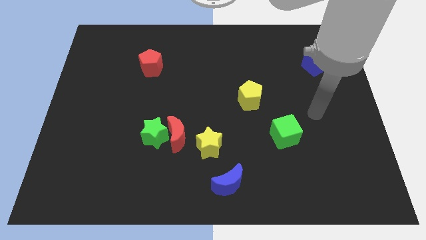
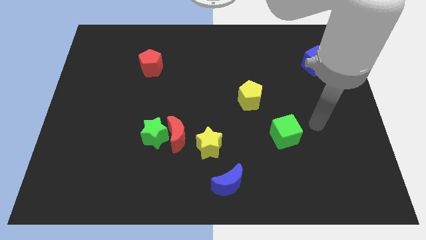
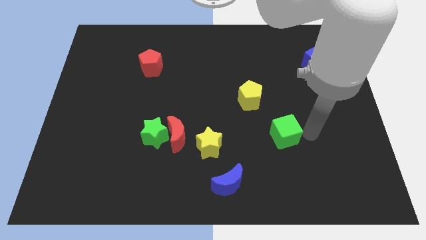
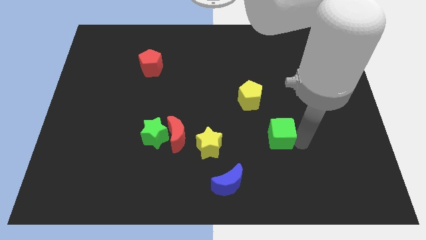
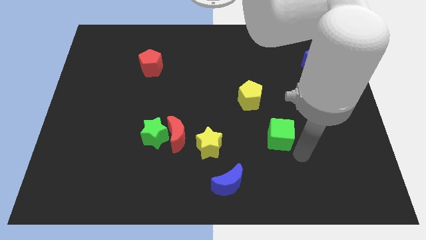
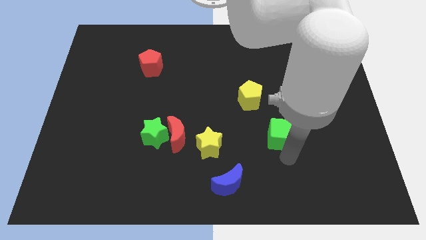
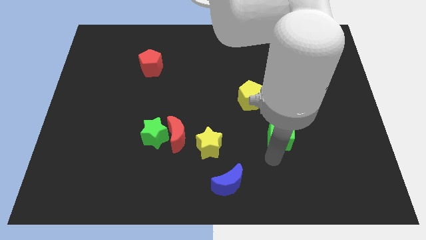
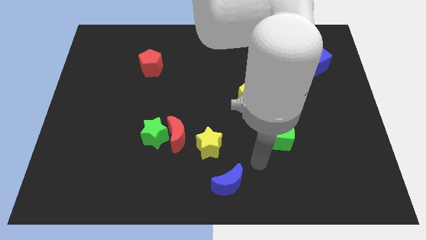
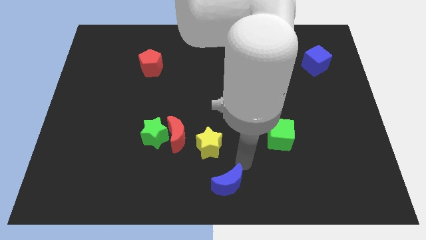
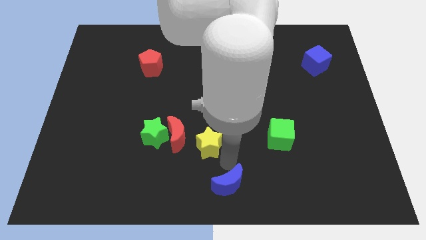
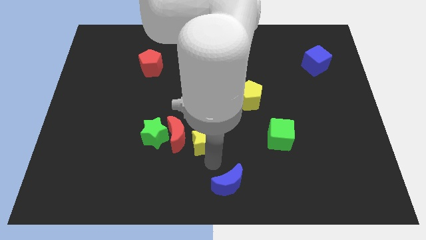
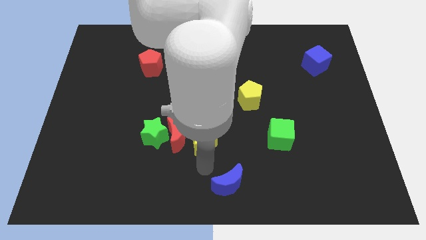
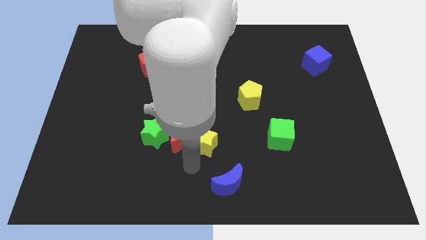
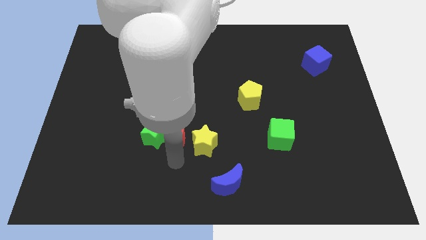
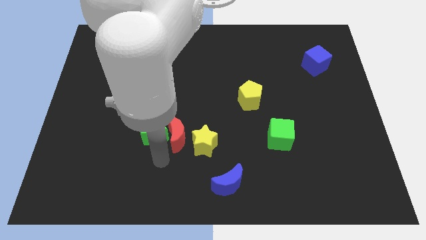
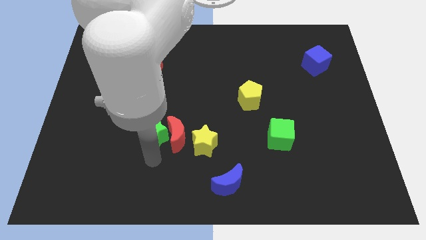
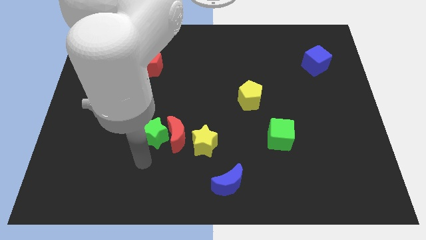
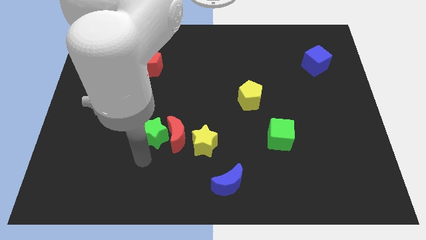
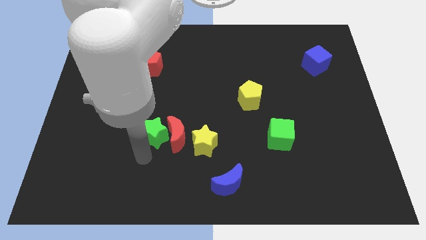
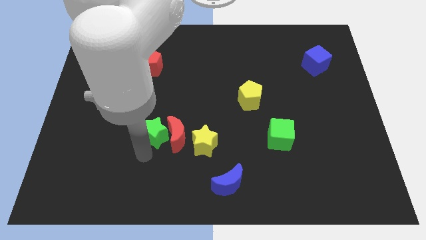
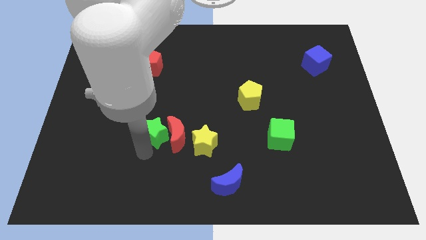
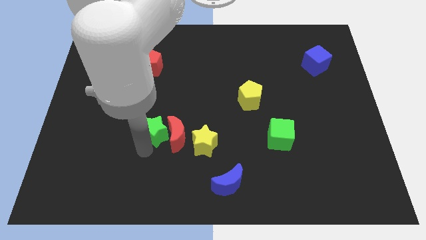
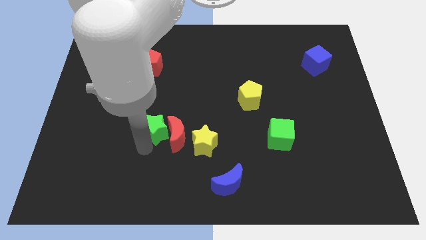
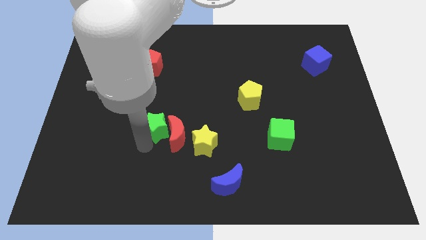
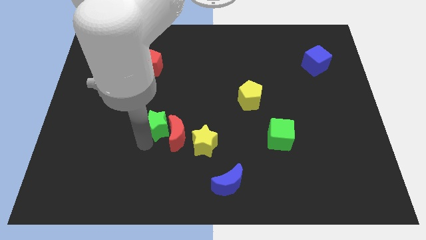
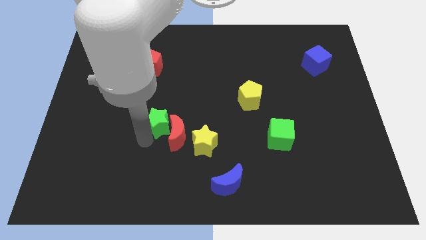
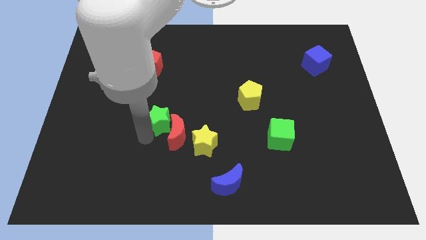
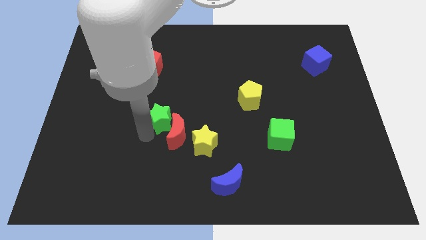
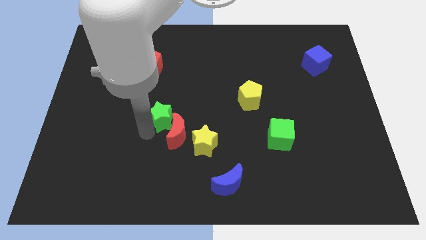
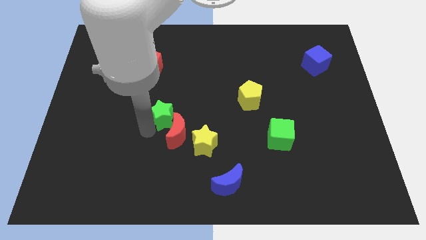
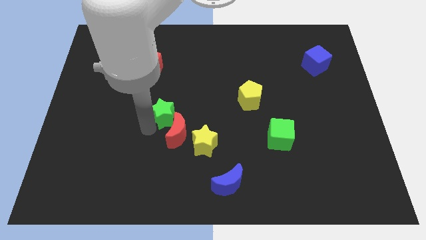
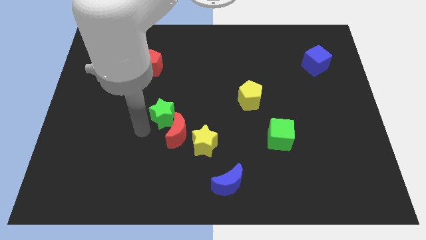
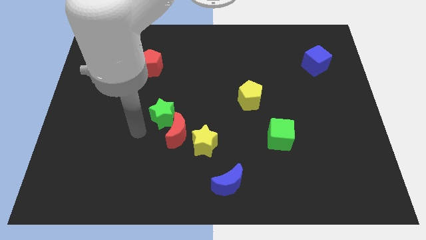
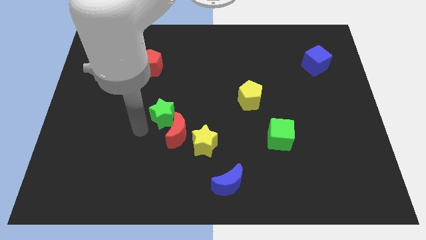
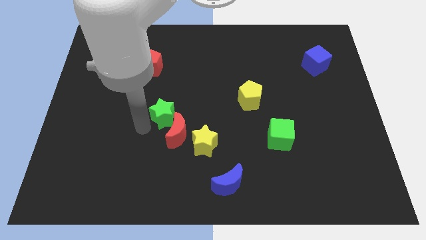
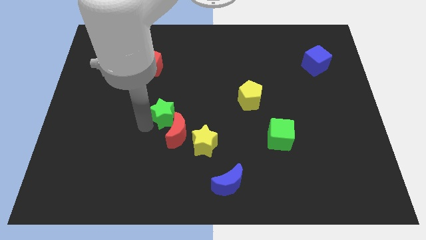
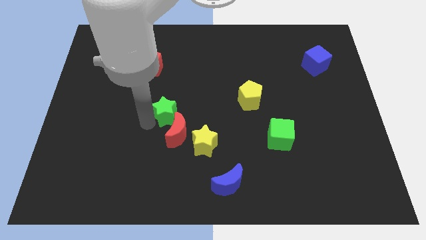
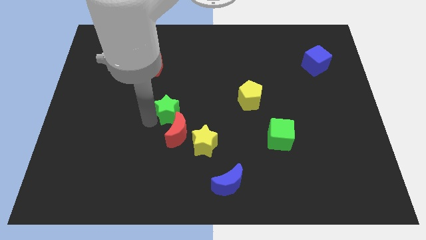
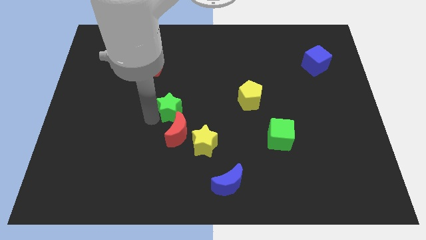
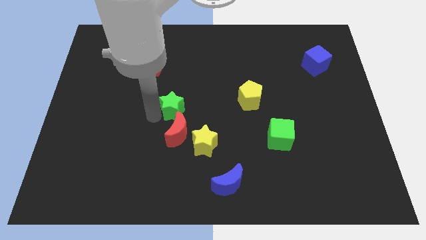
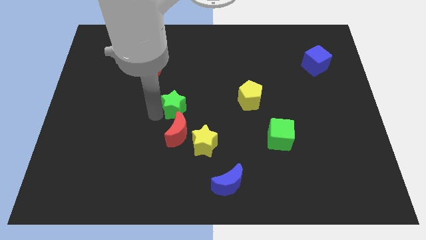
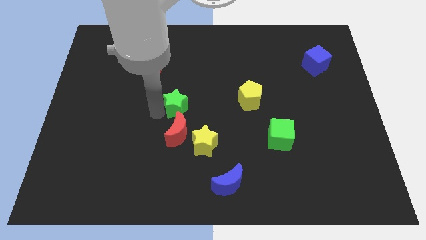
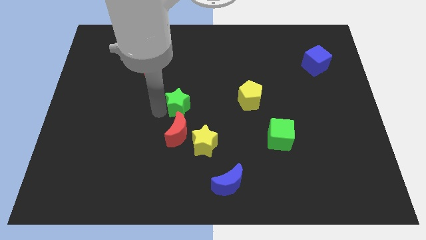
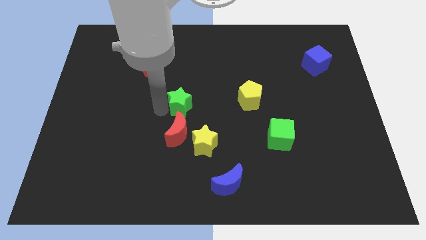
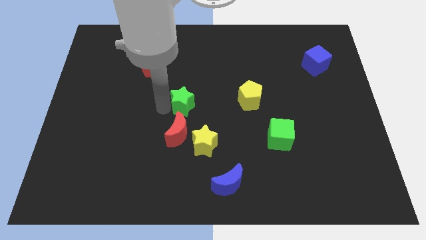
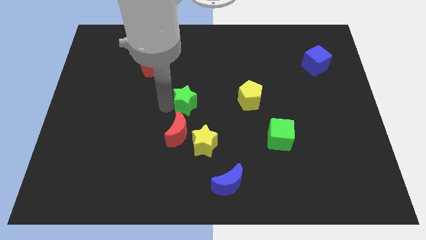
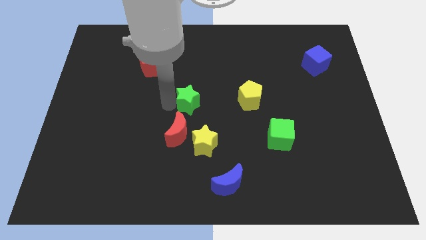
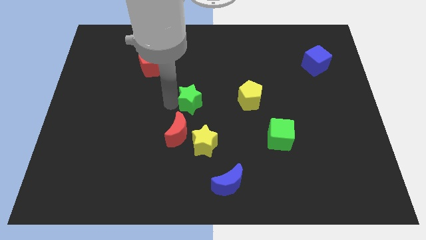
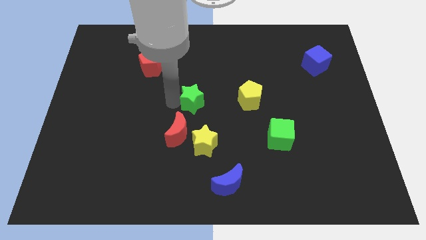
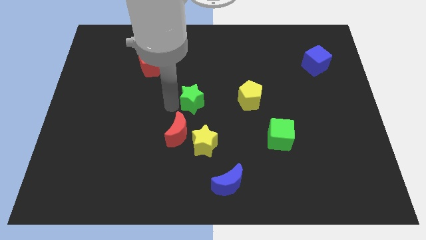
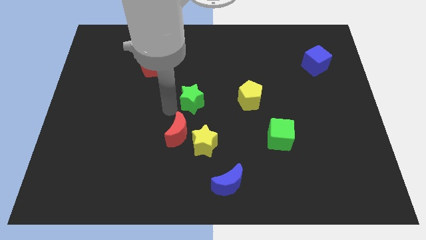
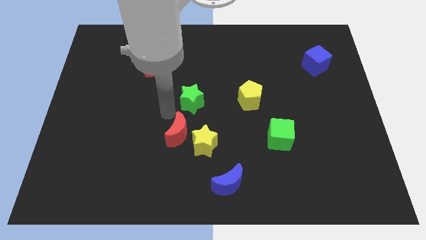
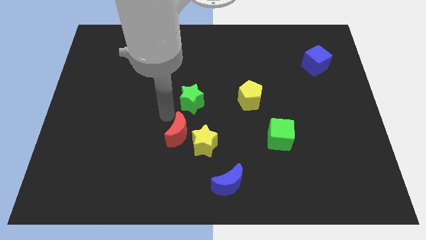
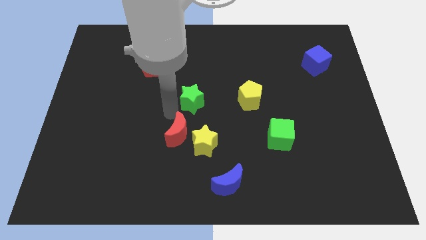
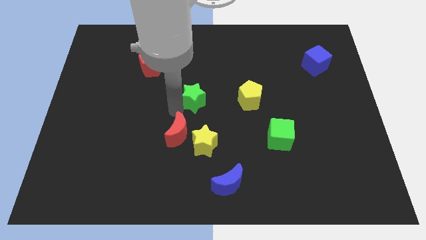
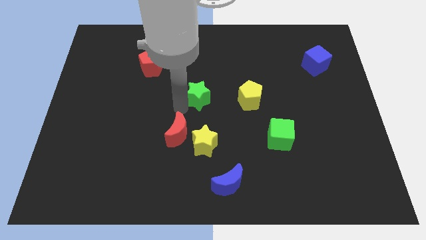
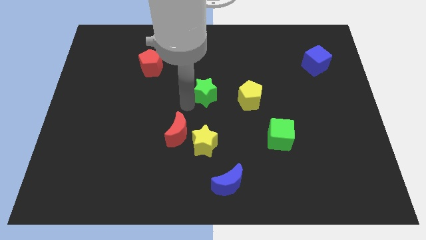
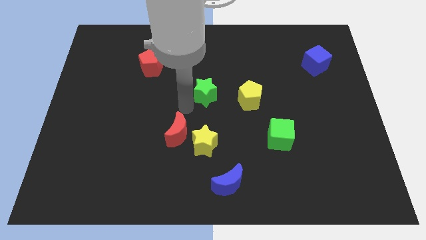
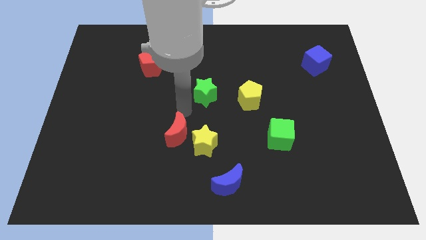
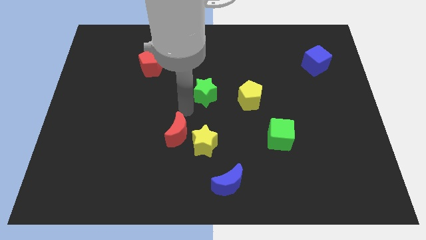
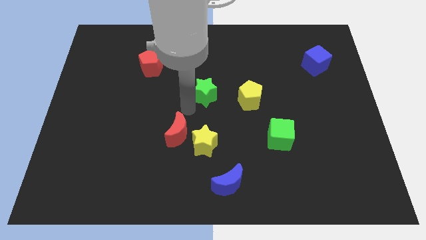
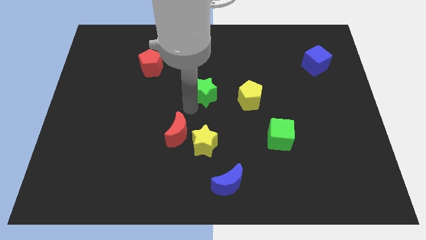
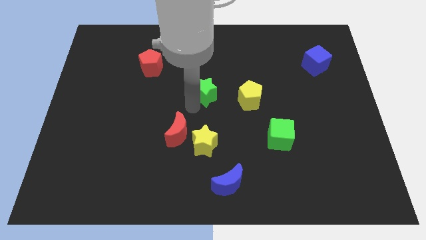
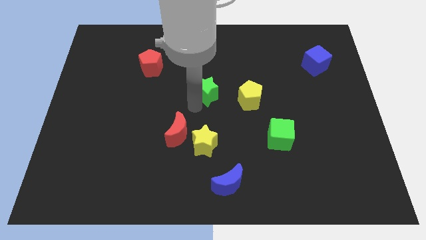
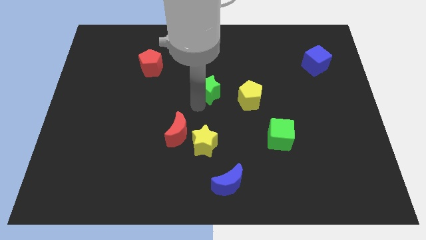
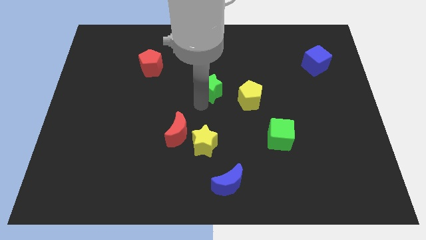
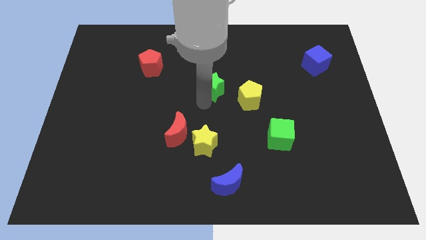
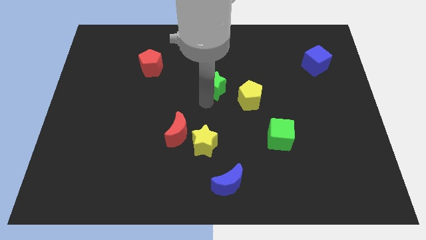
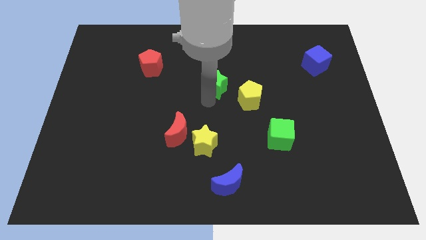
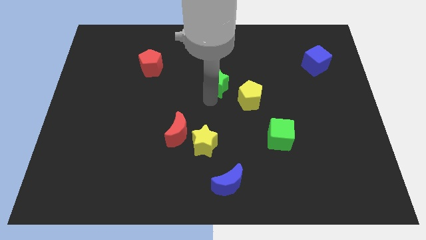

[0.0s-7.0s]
slide the green star diagonally upwards and to the right

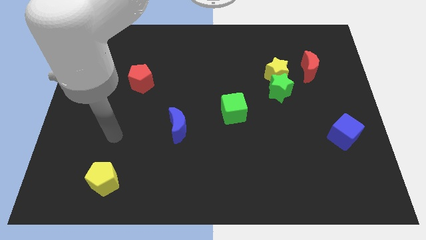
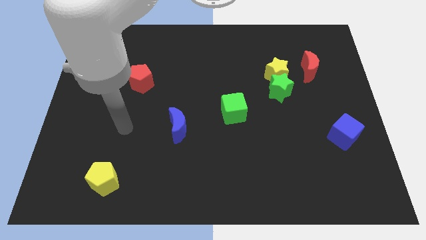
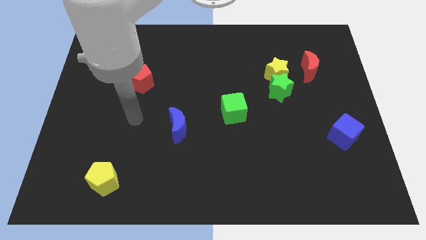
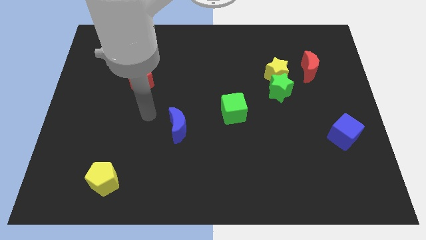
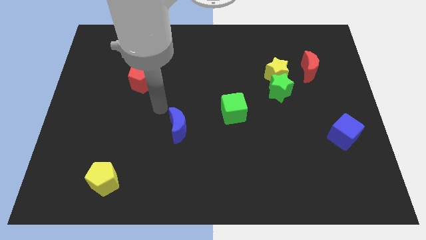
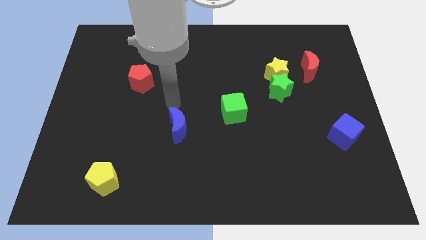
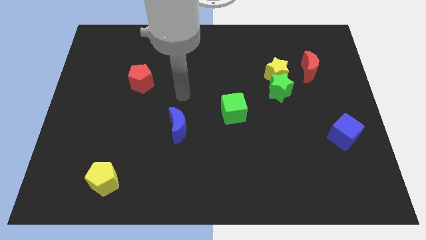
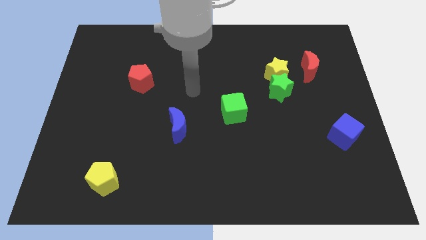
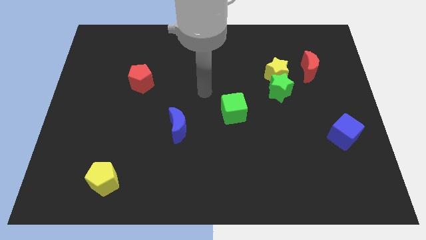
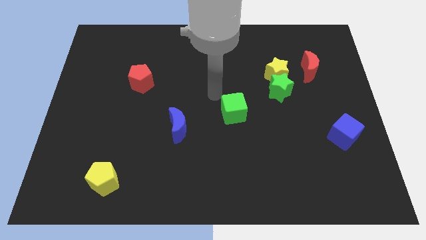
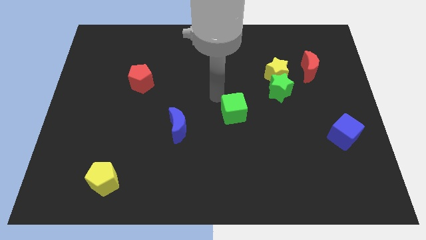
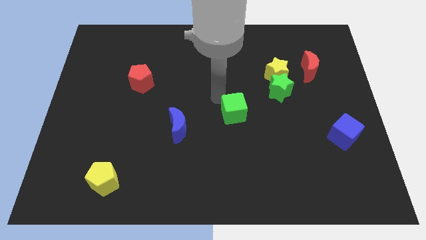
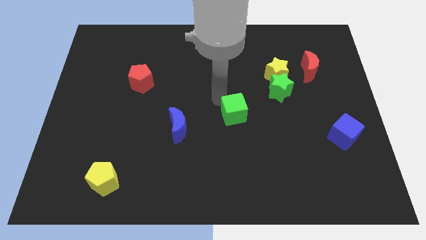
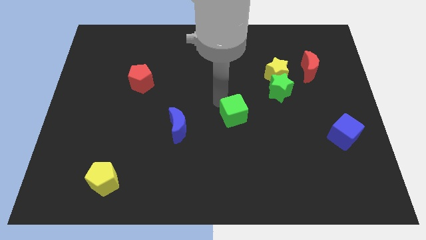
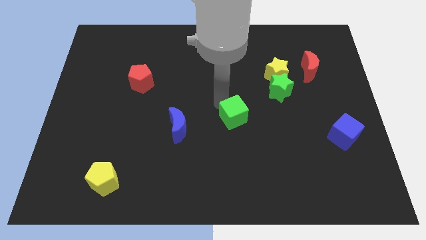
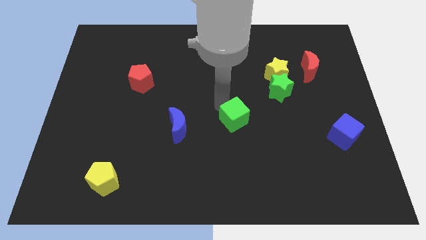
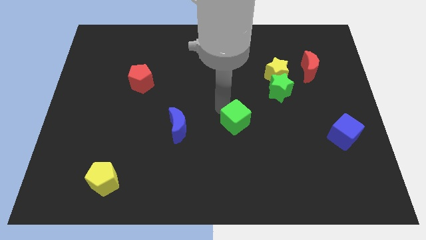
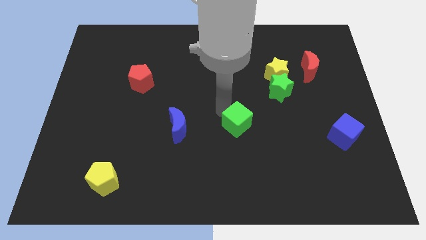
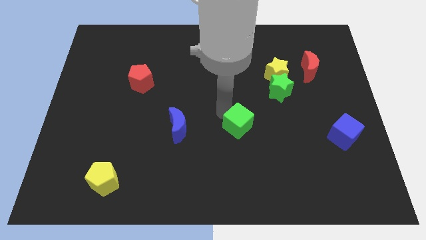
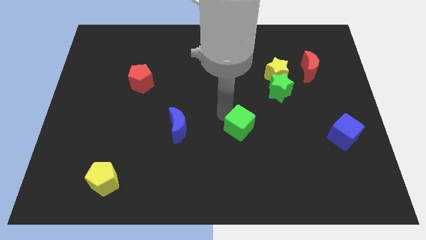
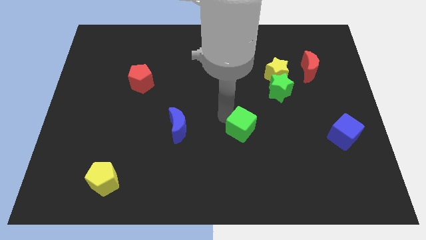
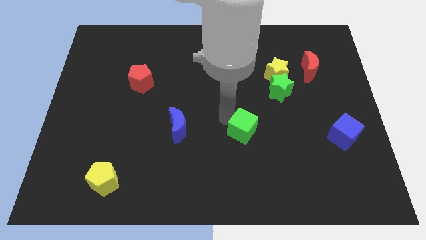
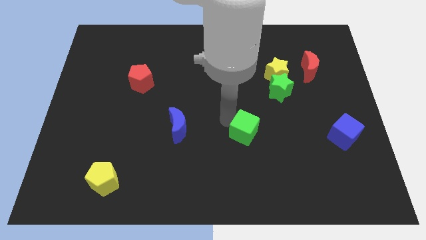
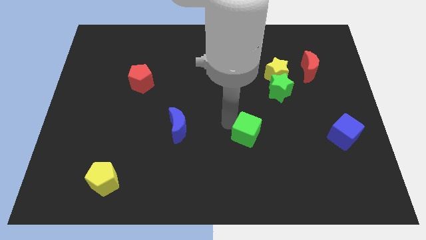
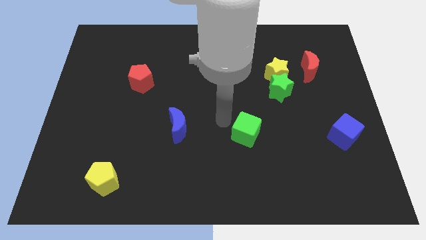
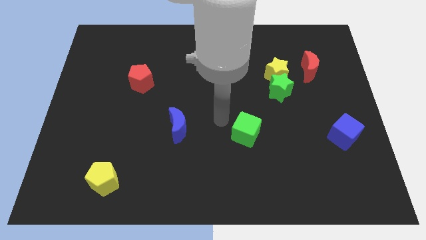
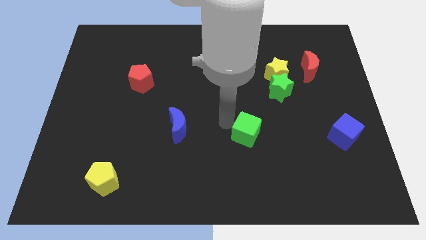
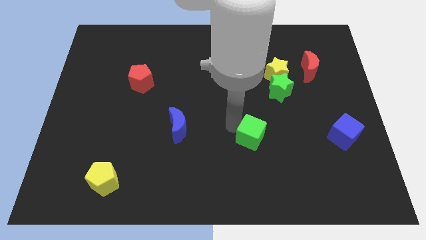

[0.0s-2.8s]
move the green cube downwards and then right slightly
